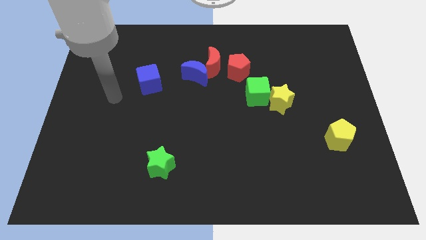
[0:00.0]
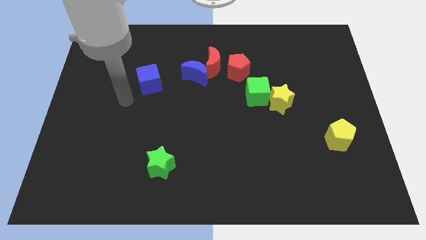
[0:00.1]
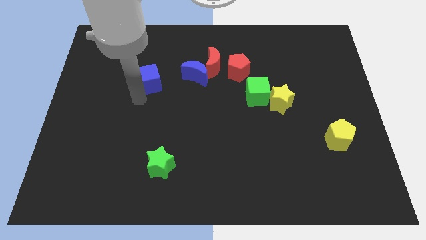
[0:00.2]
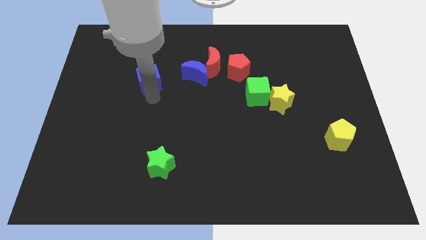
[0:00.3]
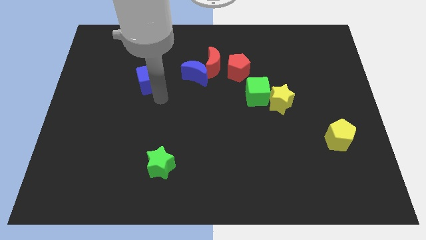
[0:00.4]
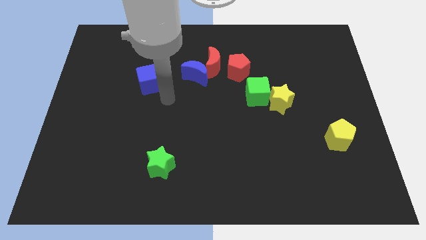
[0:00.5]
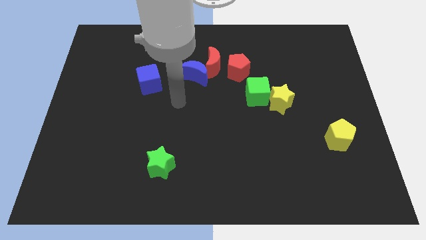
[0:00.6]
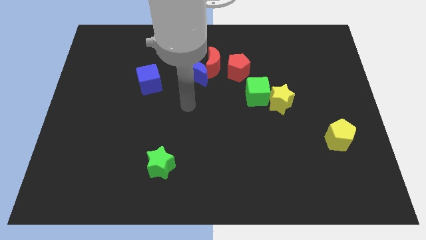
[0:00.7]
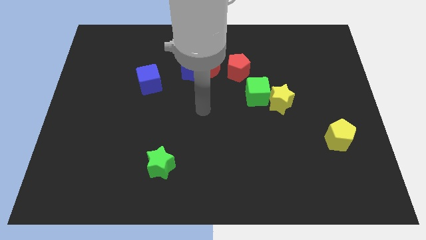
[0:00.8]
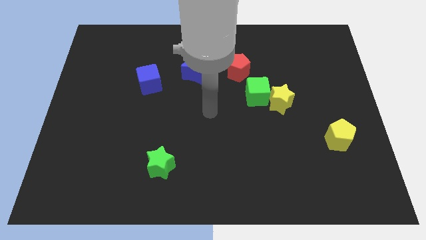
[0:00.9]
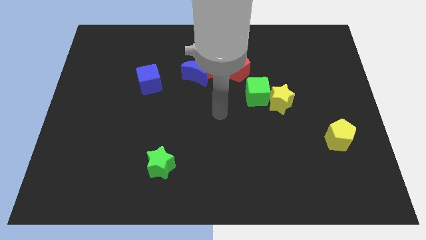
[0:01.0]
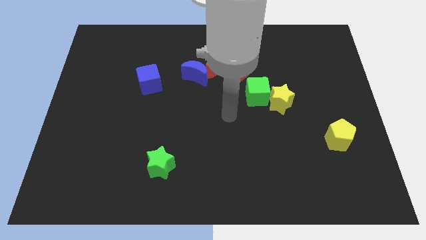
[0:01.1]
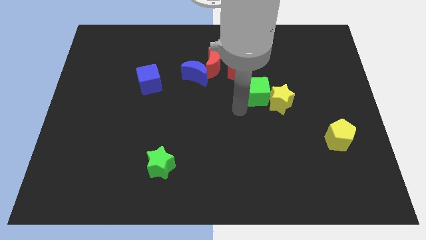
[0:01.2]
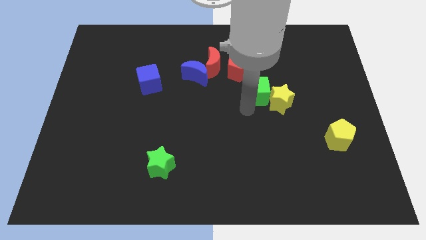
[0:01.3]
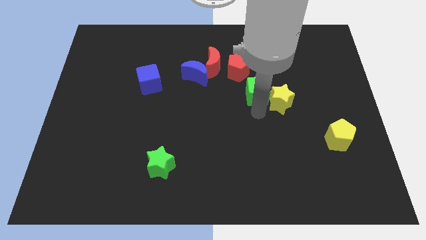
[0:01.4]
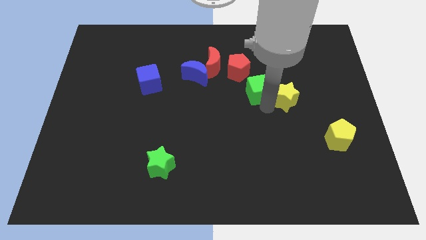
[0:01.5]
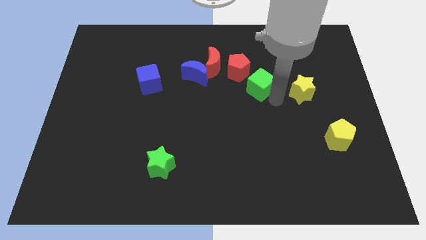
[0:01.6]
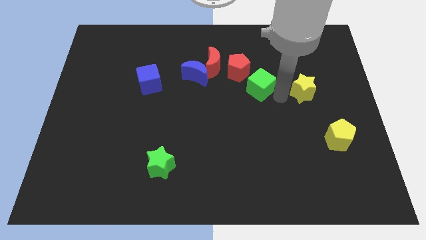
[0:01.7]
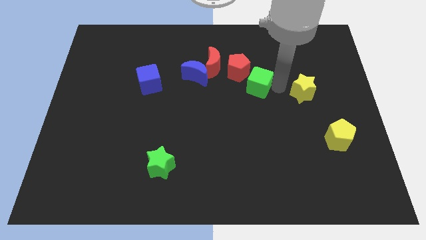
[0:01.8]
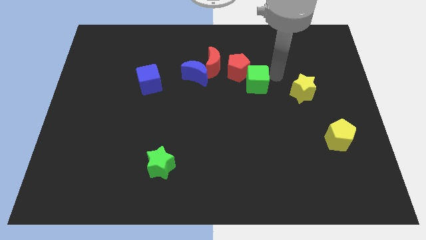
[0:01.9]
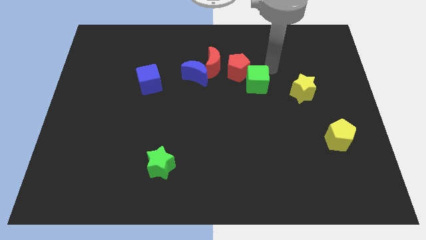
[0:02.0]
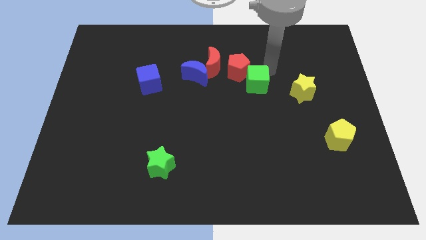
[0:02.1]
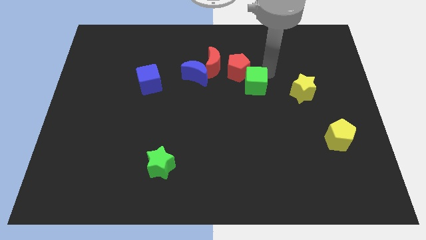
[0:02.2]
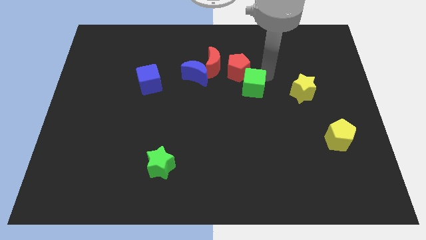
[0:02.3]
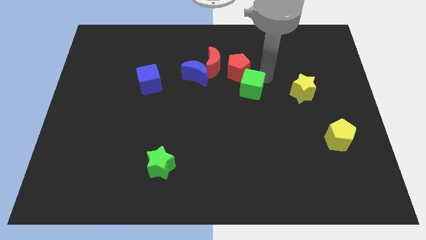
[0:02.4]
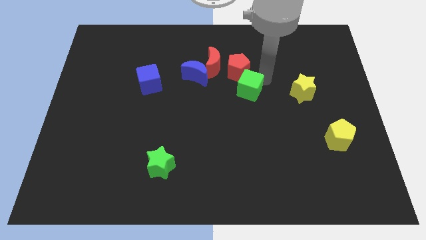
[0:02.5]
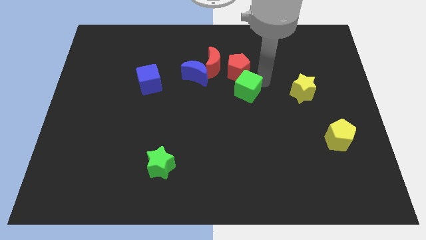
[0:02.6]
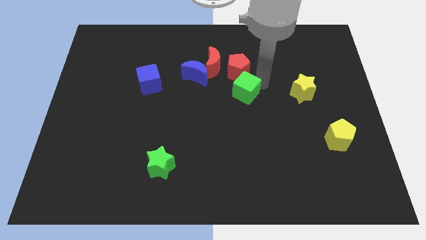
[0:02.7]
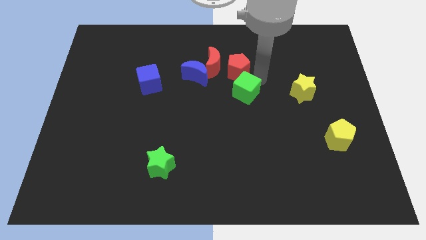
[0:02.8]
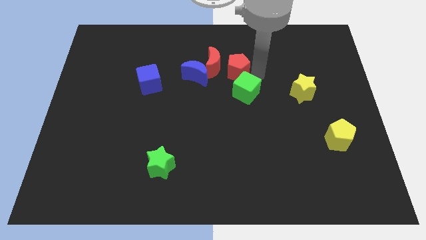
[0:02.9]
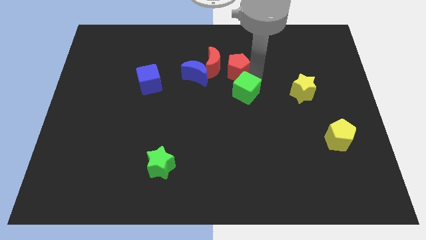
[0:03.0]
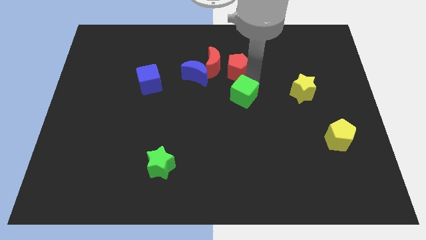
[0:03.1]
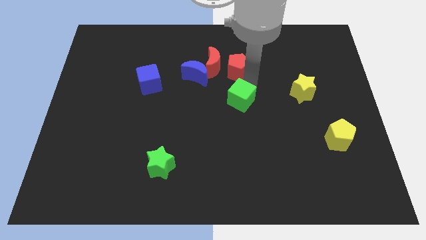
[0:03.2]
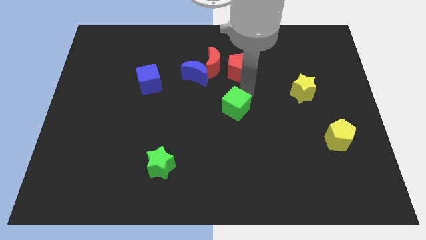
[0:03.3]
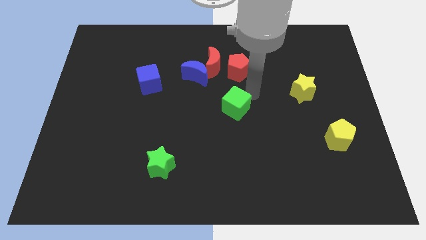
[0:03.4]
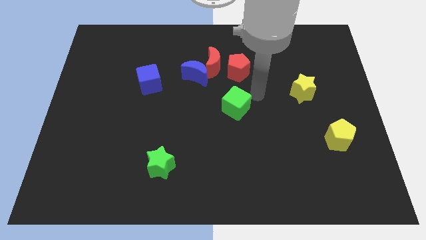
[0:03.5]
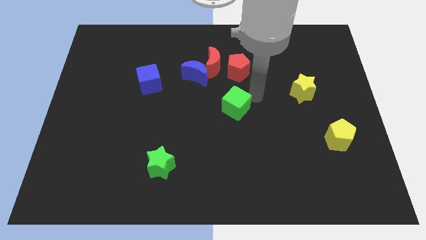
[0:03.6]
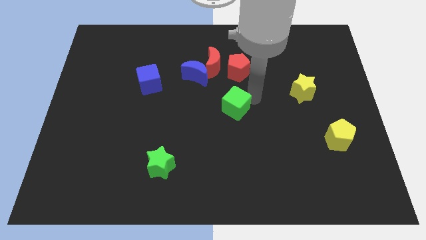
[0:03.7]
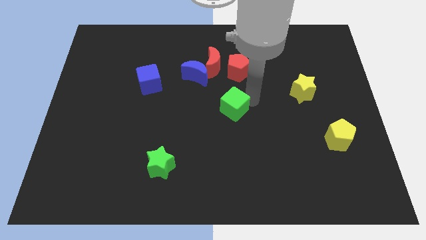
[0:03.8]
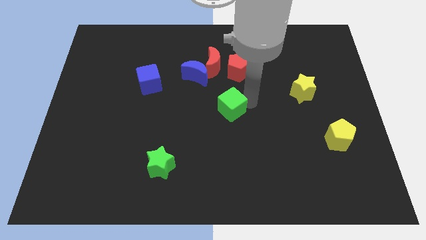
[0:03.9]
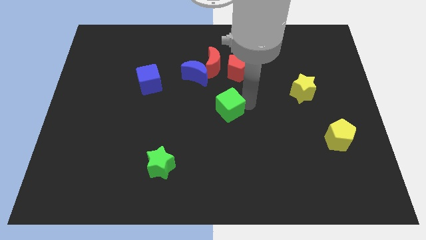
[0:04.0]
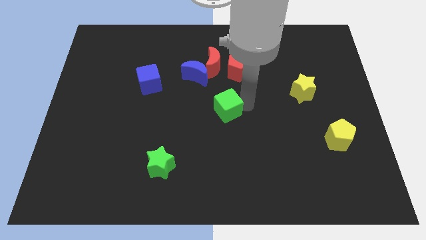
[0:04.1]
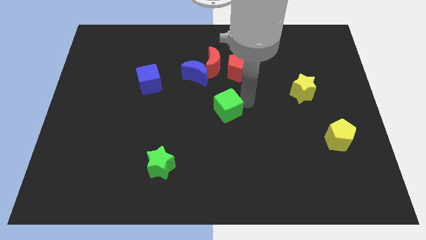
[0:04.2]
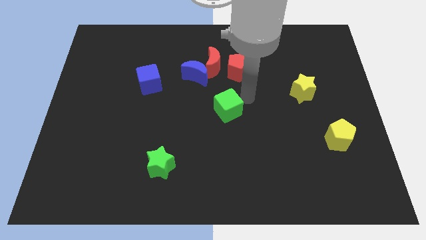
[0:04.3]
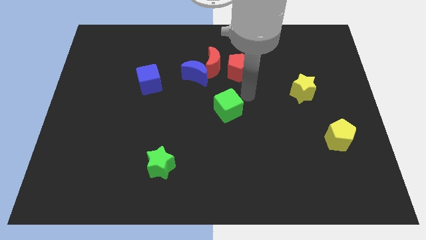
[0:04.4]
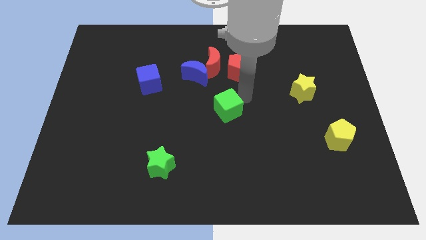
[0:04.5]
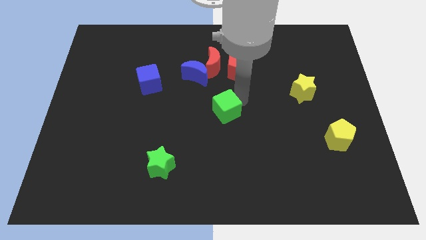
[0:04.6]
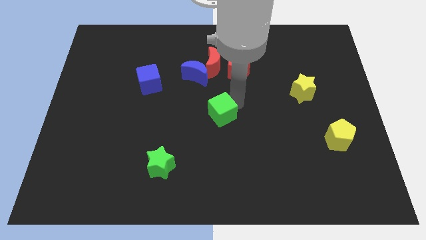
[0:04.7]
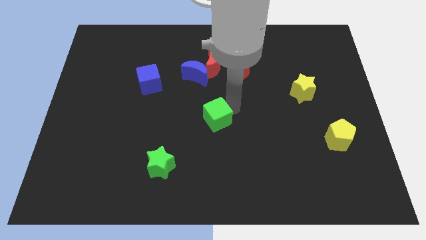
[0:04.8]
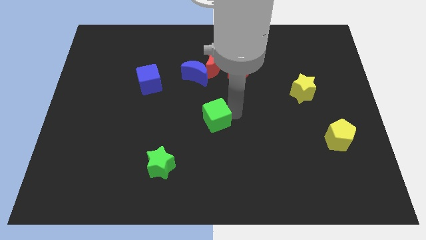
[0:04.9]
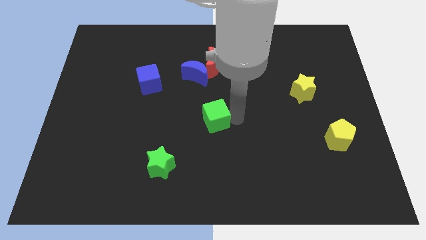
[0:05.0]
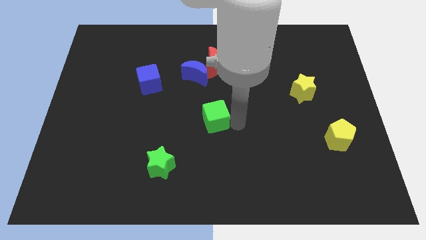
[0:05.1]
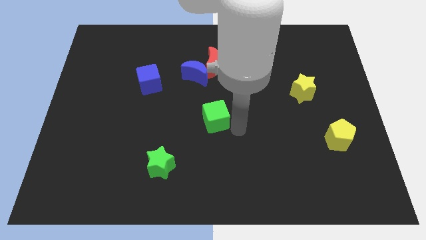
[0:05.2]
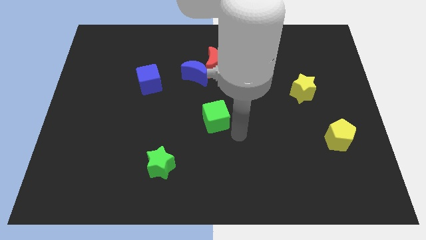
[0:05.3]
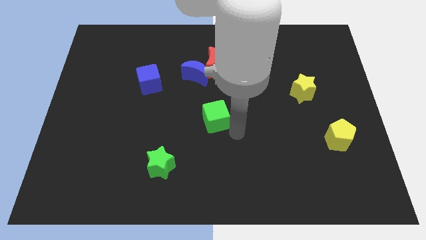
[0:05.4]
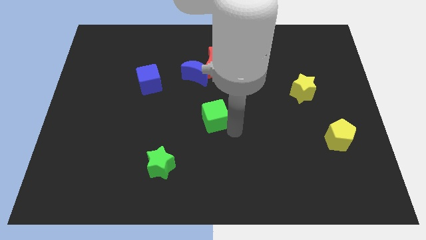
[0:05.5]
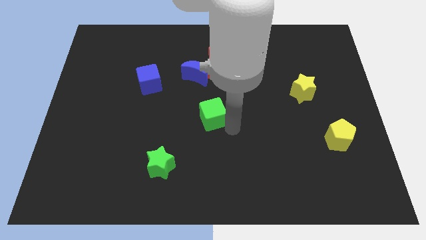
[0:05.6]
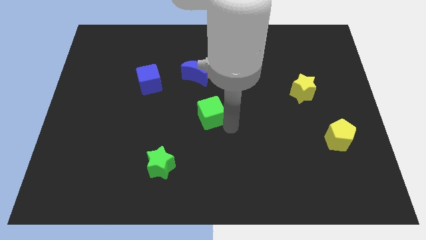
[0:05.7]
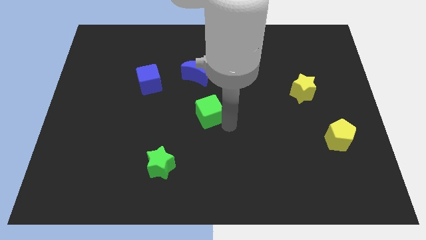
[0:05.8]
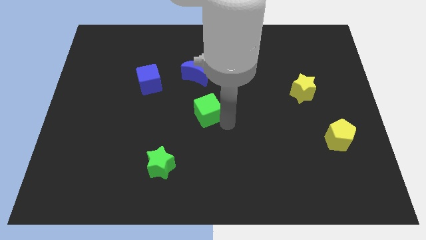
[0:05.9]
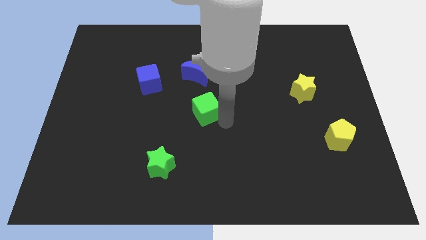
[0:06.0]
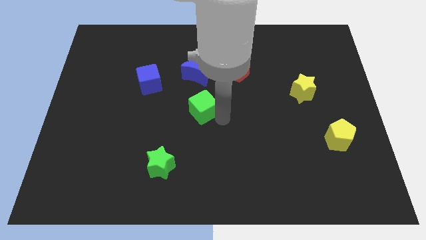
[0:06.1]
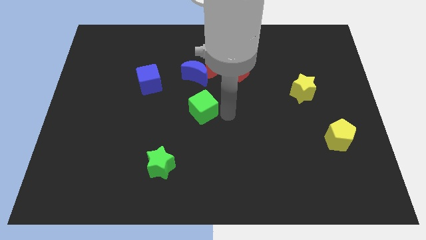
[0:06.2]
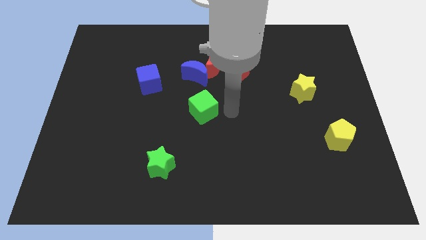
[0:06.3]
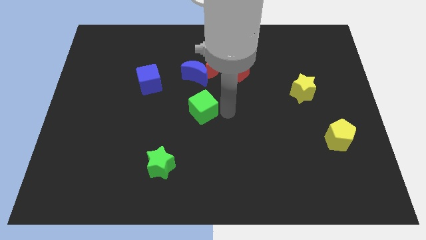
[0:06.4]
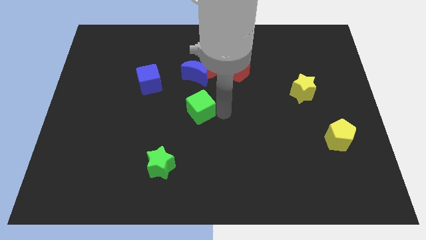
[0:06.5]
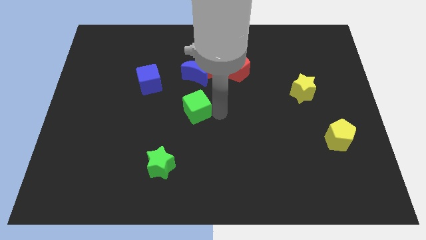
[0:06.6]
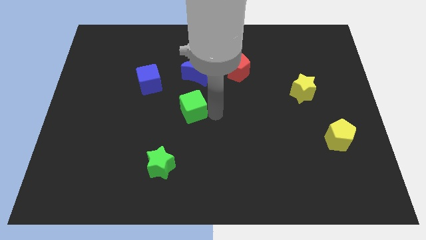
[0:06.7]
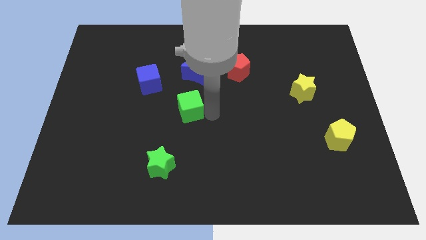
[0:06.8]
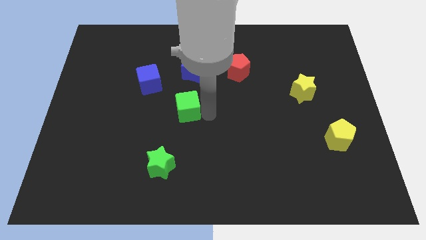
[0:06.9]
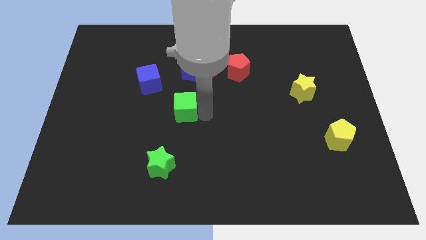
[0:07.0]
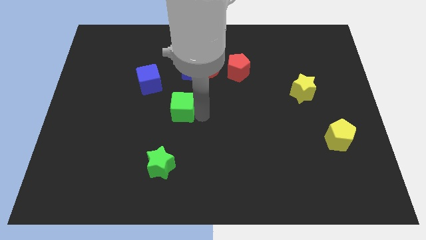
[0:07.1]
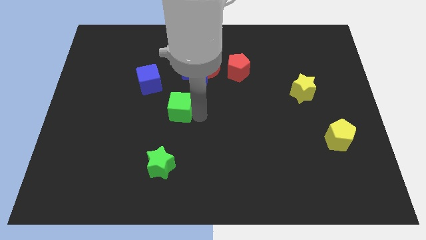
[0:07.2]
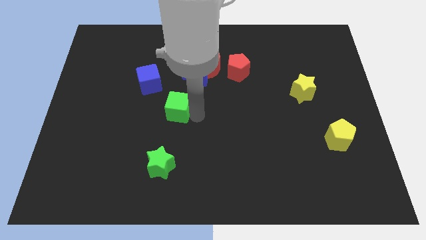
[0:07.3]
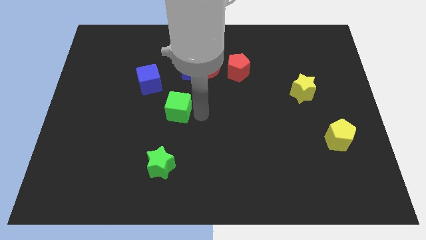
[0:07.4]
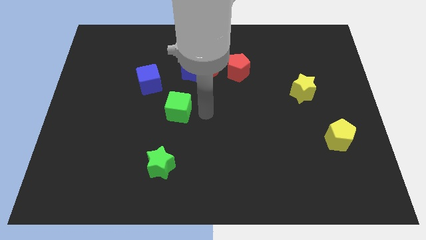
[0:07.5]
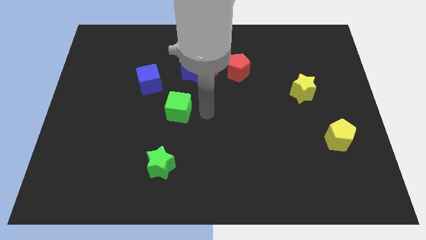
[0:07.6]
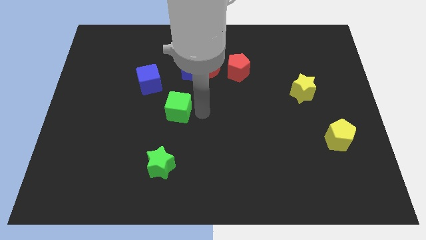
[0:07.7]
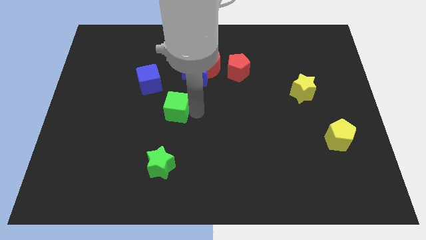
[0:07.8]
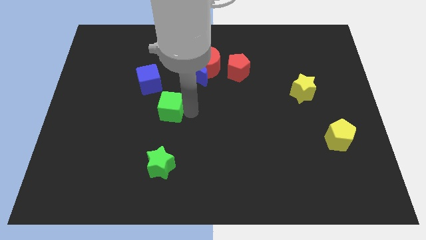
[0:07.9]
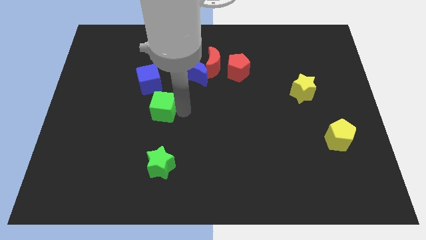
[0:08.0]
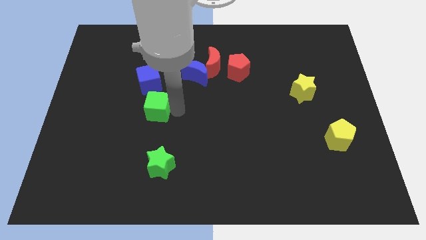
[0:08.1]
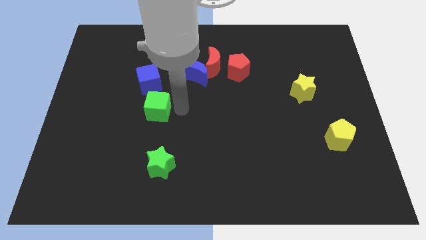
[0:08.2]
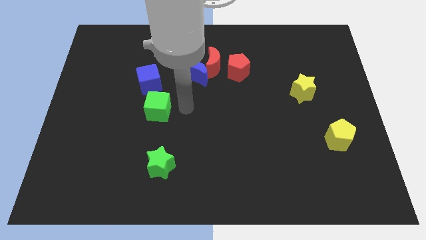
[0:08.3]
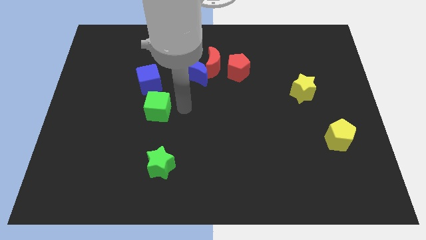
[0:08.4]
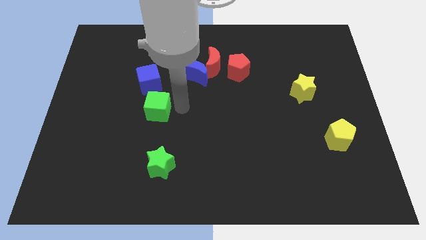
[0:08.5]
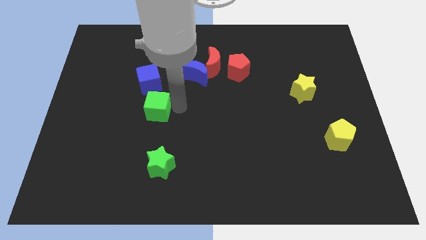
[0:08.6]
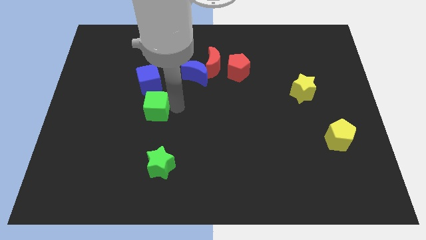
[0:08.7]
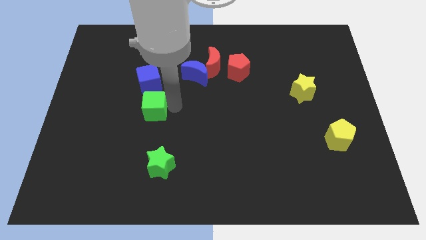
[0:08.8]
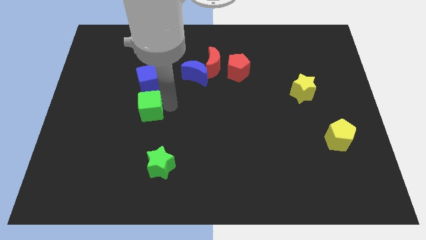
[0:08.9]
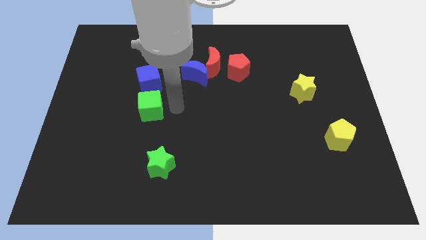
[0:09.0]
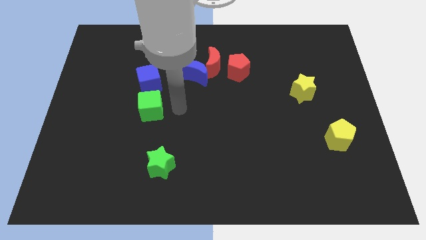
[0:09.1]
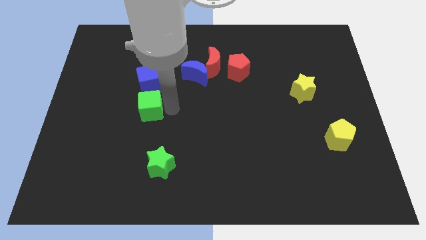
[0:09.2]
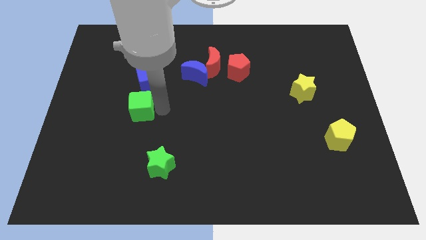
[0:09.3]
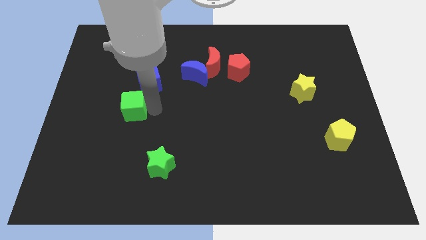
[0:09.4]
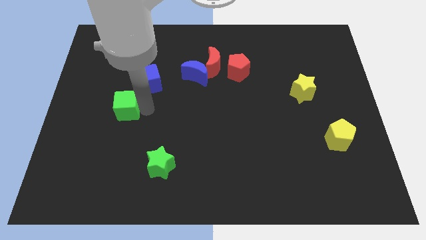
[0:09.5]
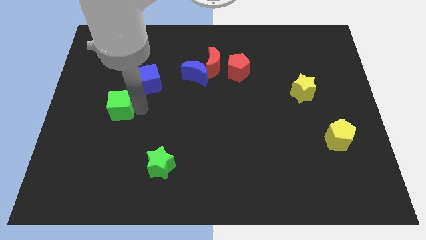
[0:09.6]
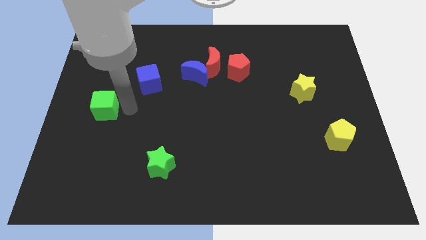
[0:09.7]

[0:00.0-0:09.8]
push the green cube to the center left
